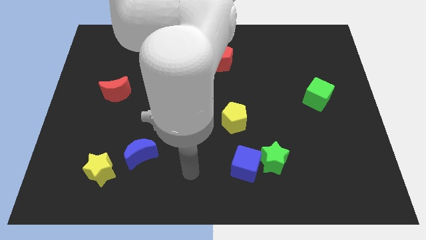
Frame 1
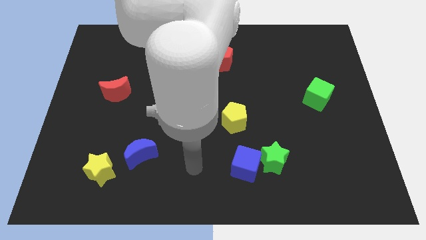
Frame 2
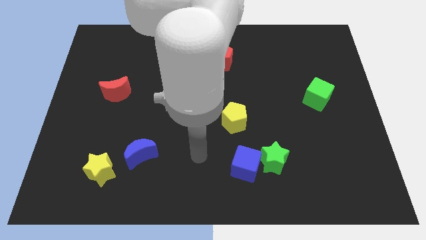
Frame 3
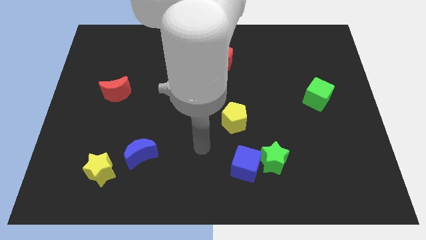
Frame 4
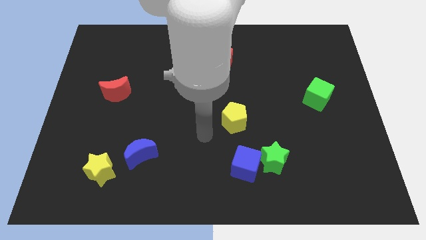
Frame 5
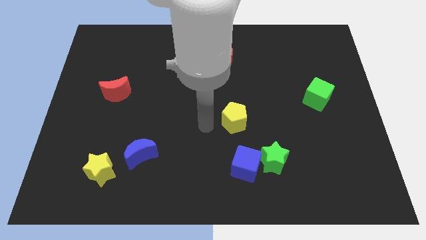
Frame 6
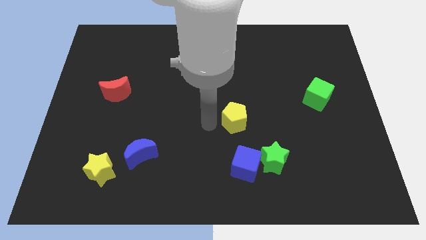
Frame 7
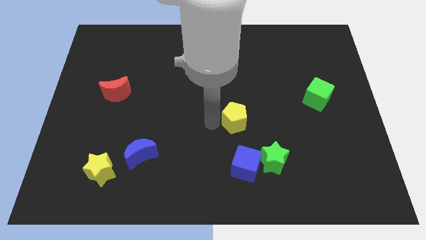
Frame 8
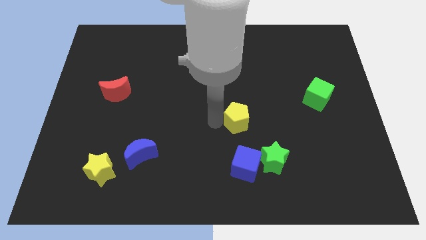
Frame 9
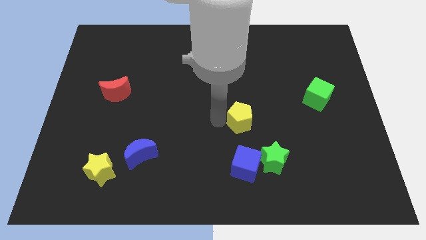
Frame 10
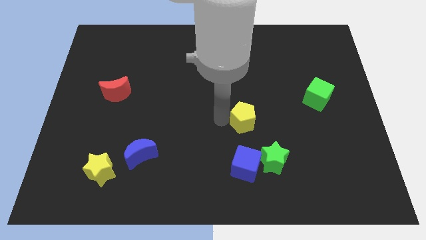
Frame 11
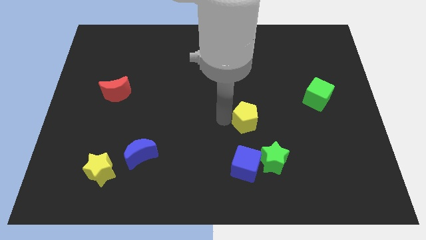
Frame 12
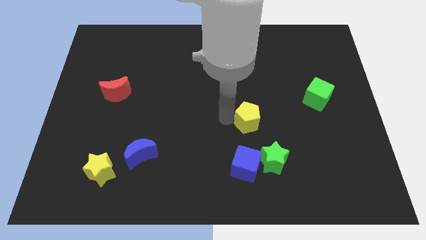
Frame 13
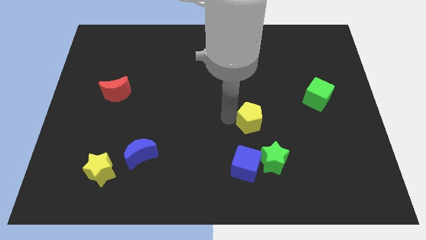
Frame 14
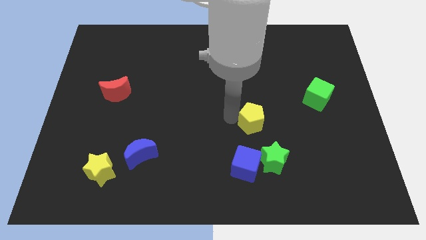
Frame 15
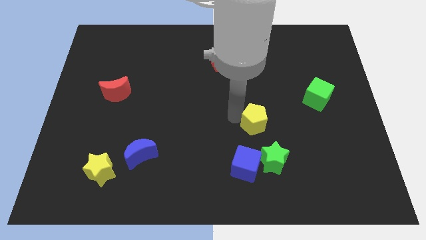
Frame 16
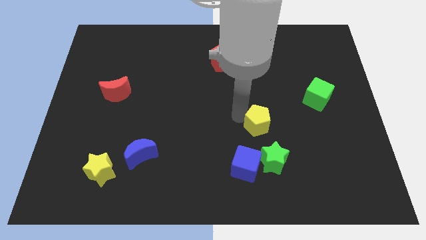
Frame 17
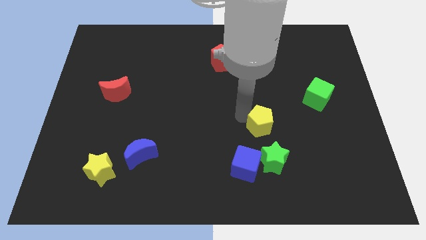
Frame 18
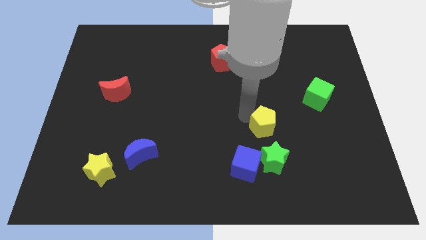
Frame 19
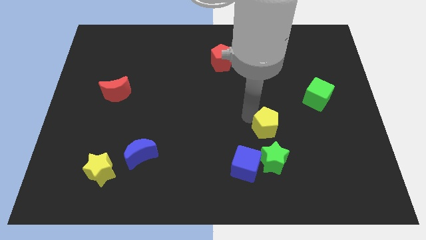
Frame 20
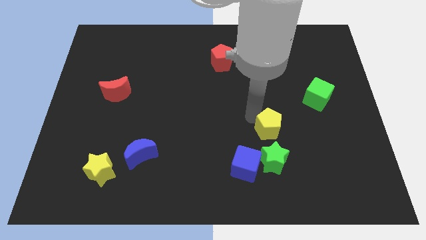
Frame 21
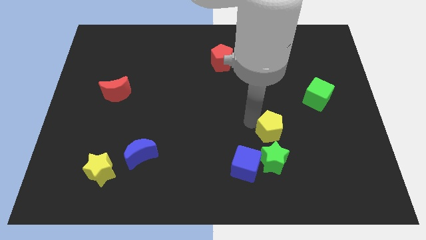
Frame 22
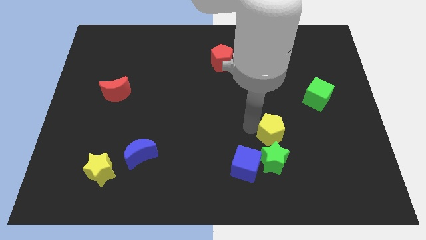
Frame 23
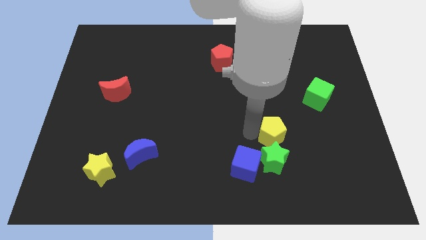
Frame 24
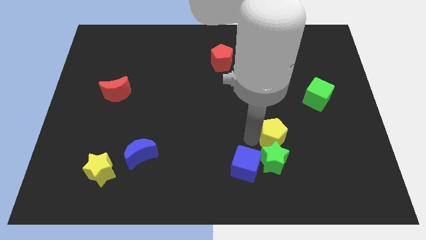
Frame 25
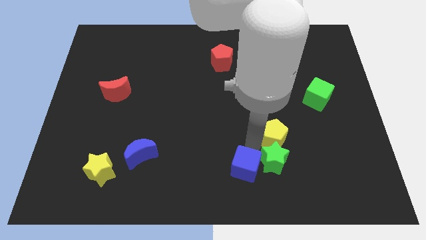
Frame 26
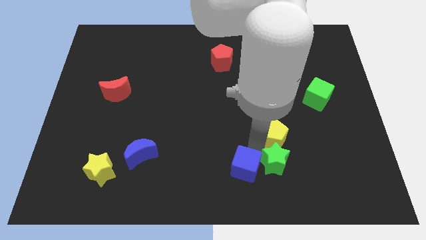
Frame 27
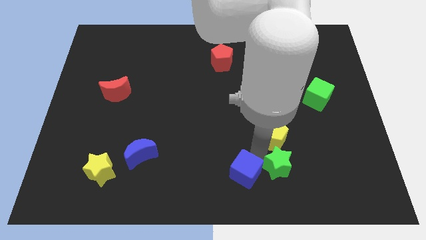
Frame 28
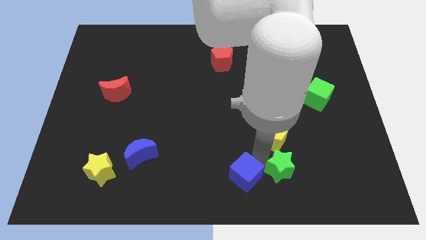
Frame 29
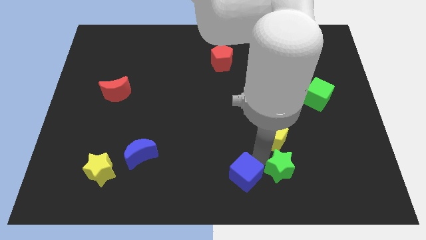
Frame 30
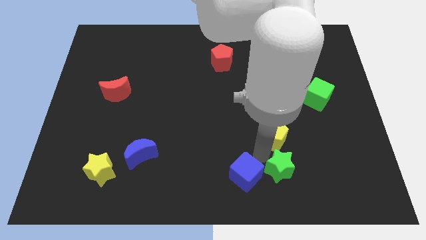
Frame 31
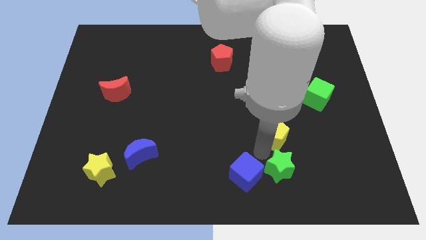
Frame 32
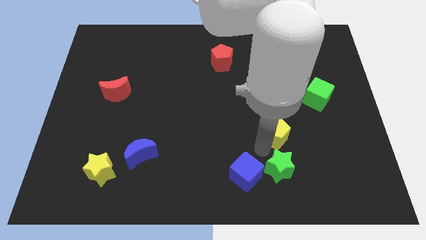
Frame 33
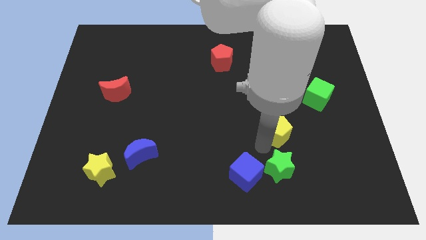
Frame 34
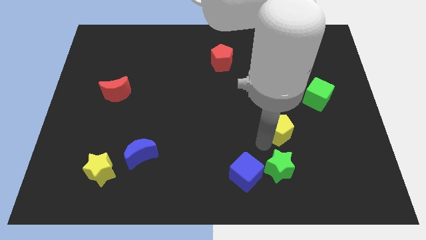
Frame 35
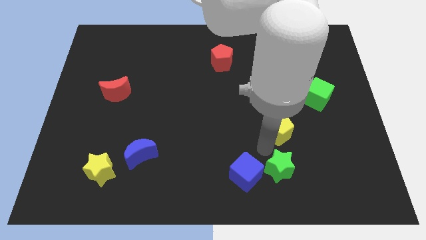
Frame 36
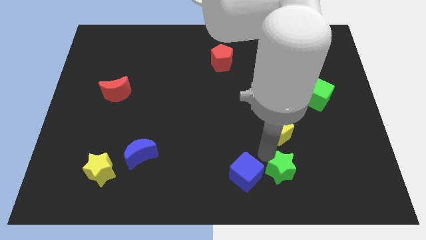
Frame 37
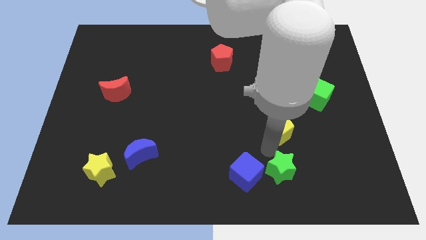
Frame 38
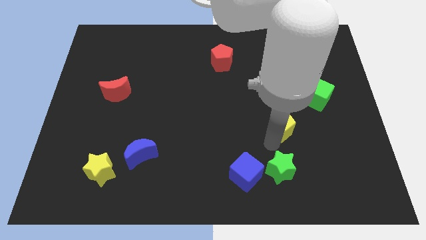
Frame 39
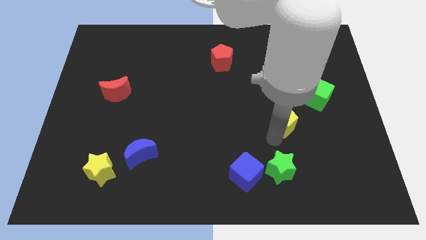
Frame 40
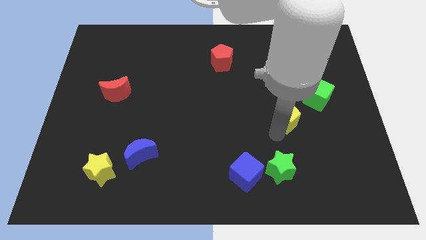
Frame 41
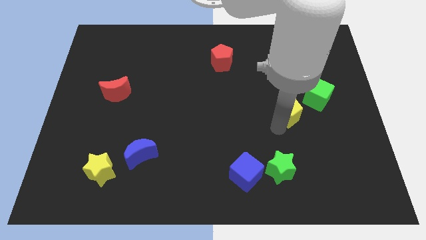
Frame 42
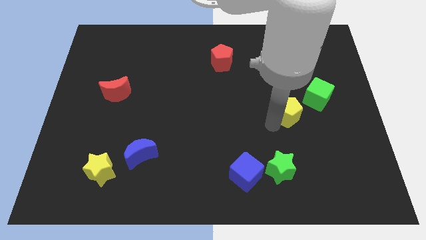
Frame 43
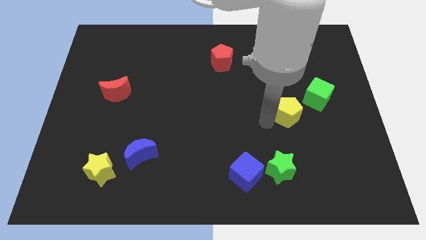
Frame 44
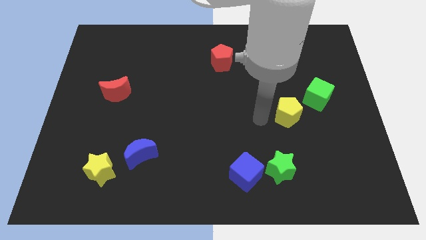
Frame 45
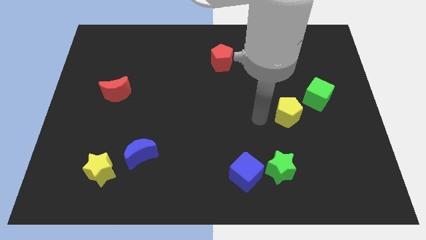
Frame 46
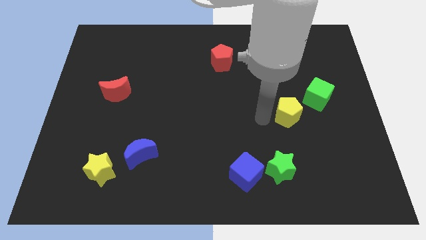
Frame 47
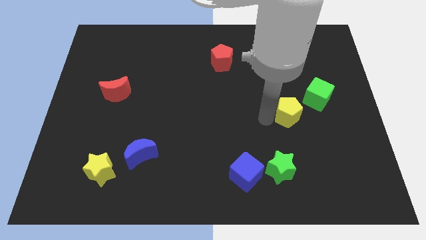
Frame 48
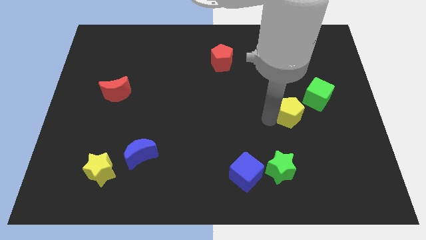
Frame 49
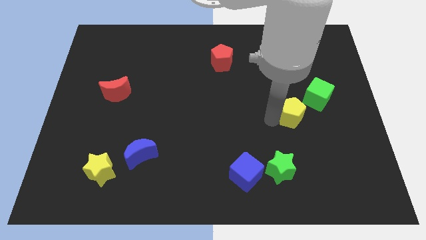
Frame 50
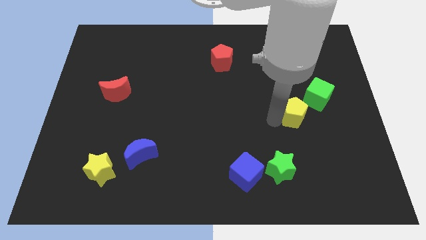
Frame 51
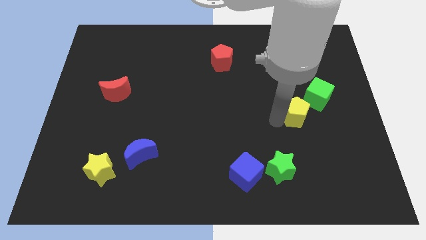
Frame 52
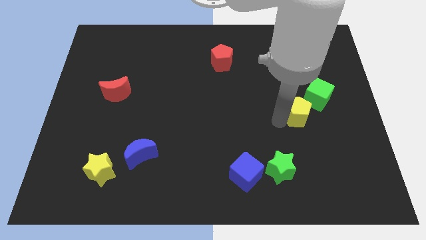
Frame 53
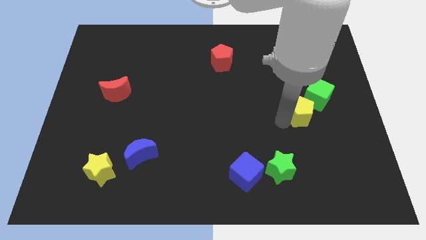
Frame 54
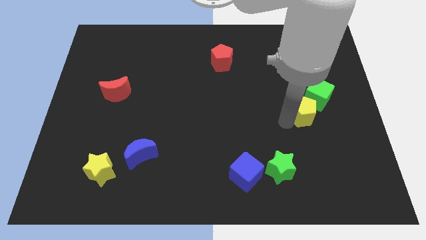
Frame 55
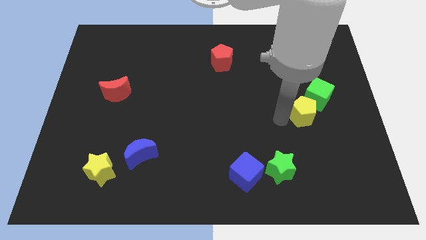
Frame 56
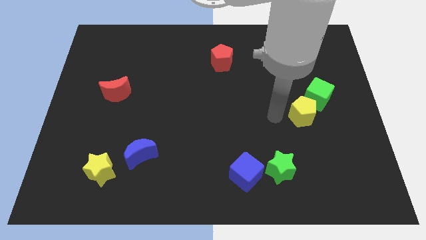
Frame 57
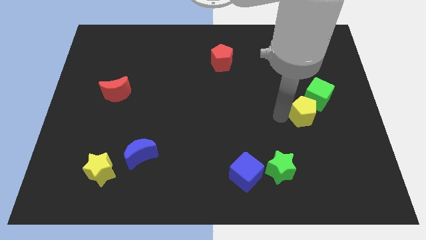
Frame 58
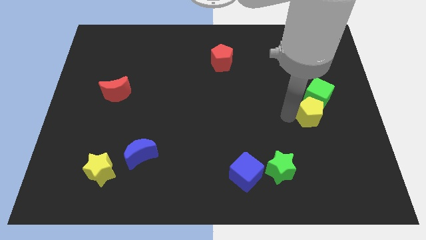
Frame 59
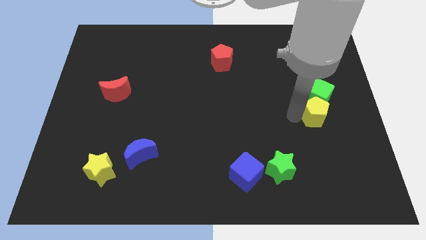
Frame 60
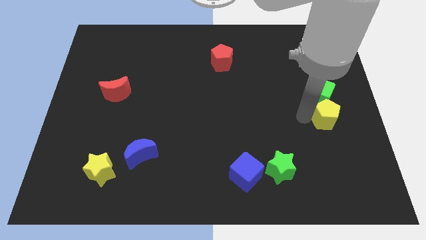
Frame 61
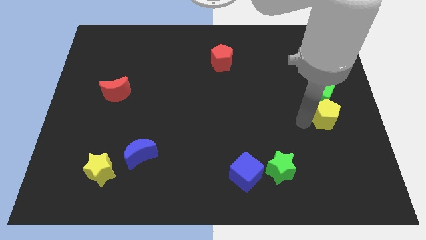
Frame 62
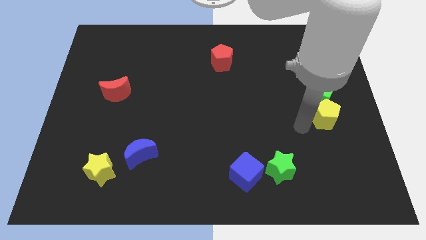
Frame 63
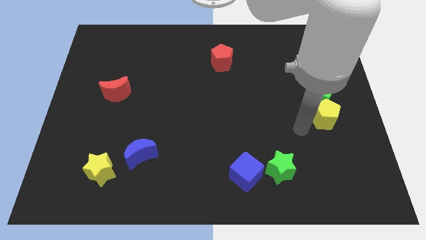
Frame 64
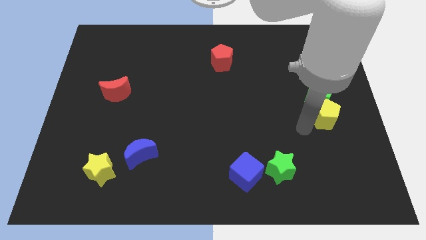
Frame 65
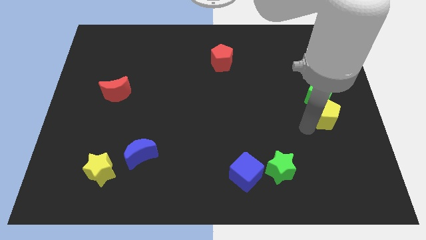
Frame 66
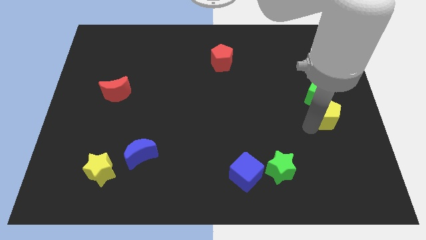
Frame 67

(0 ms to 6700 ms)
move the yellow pentagon to the center right
